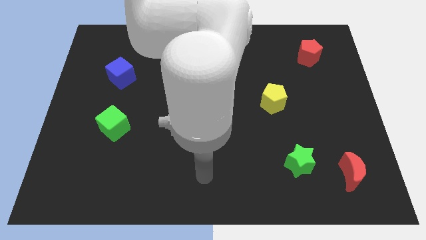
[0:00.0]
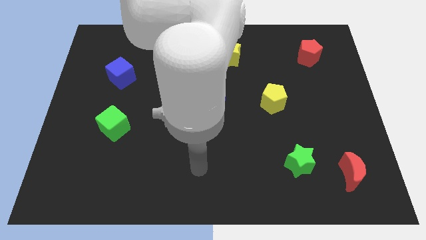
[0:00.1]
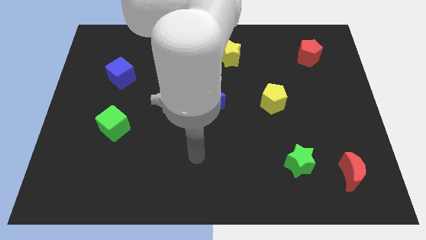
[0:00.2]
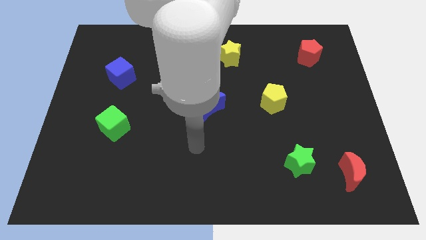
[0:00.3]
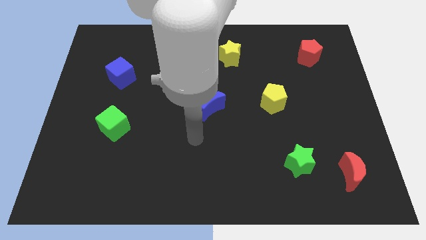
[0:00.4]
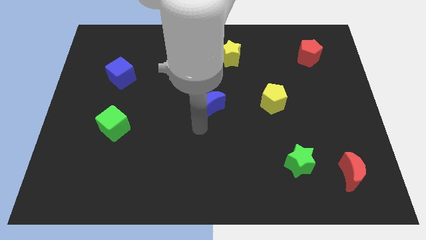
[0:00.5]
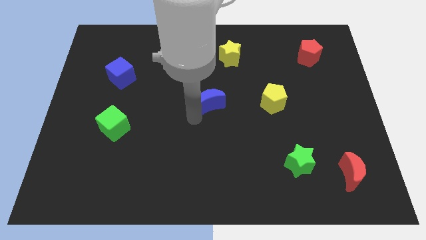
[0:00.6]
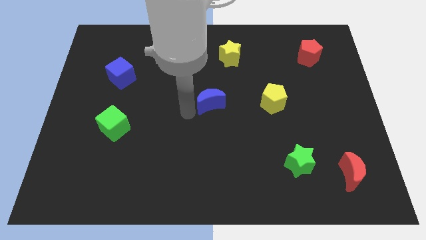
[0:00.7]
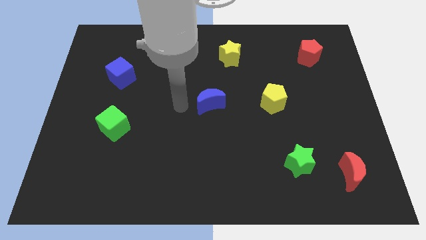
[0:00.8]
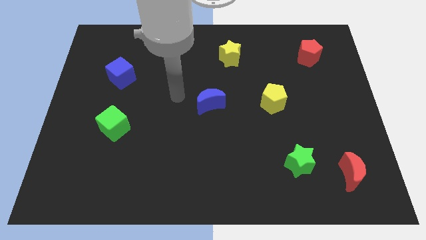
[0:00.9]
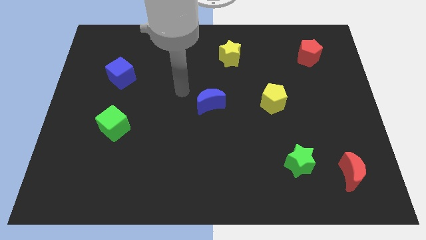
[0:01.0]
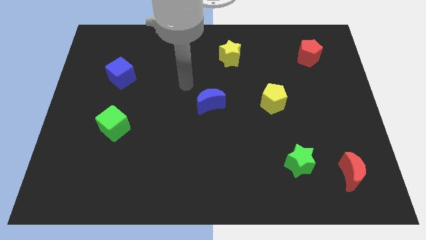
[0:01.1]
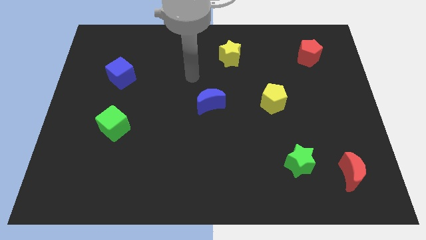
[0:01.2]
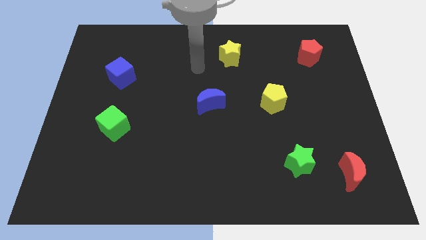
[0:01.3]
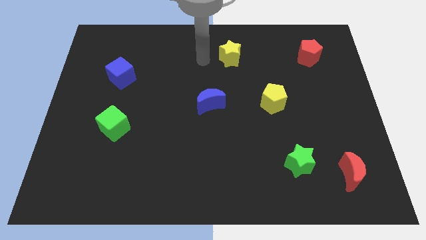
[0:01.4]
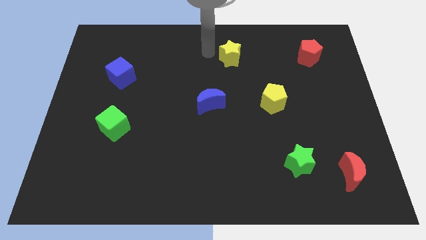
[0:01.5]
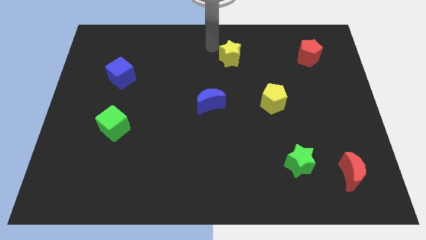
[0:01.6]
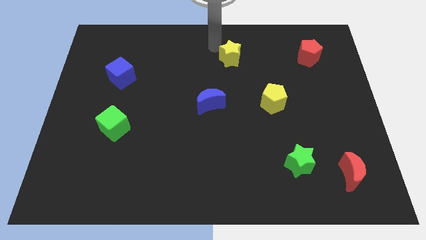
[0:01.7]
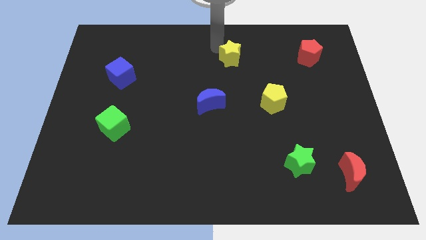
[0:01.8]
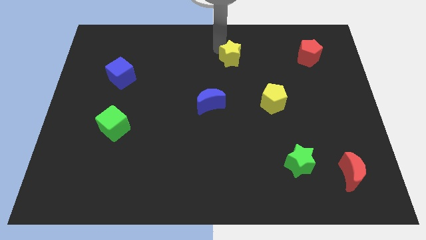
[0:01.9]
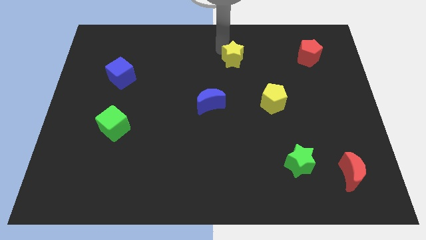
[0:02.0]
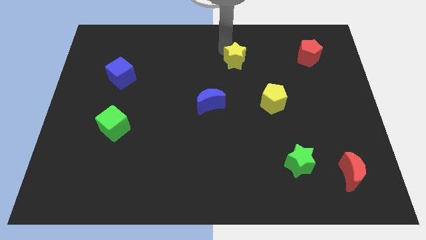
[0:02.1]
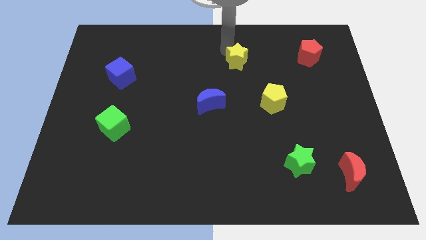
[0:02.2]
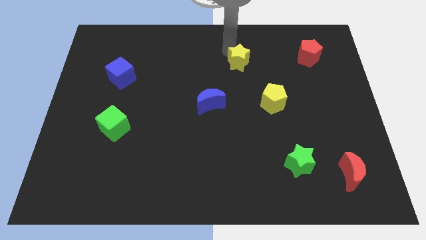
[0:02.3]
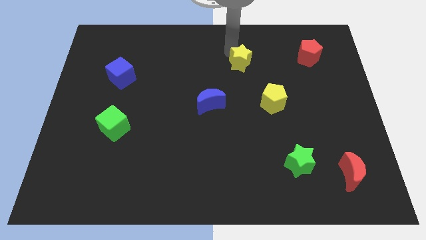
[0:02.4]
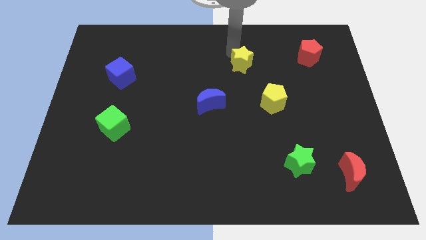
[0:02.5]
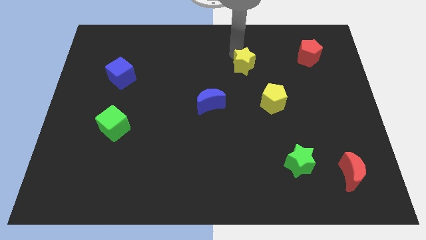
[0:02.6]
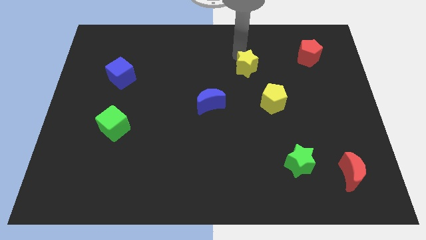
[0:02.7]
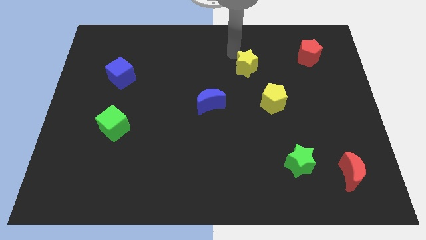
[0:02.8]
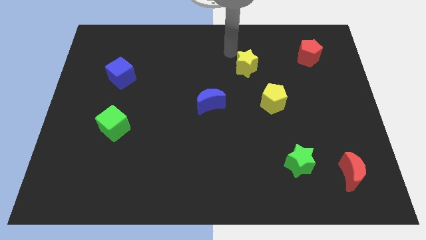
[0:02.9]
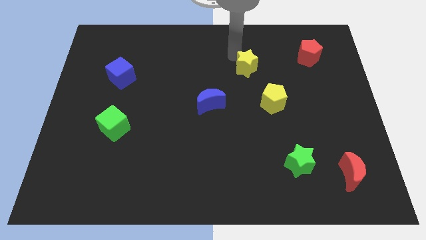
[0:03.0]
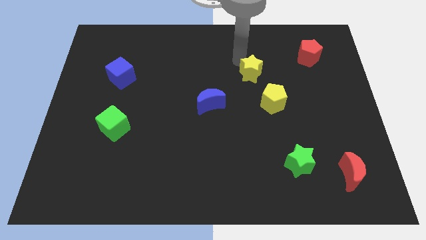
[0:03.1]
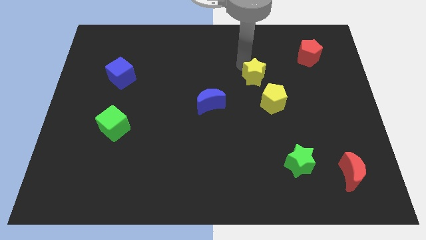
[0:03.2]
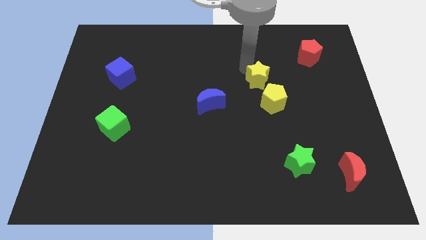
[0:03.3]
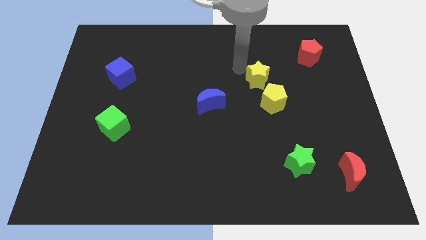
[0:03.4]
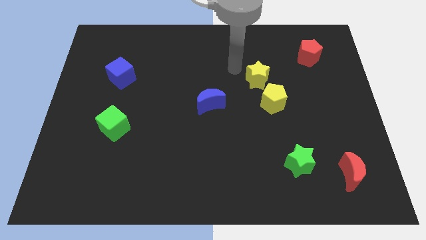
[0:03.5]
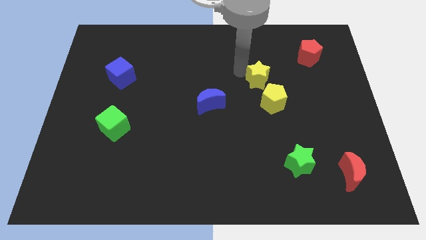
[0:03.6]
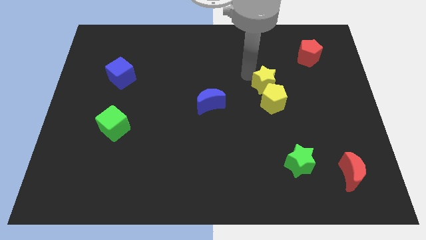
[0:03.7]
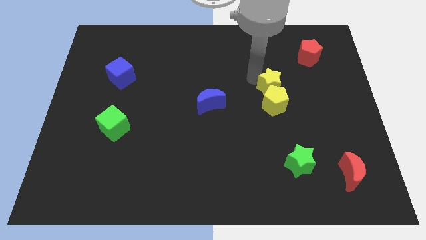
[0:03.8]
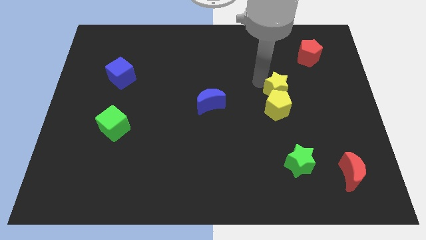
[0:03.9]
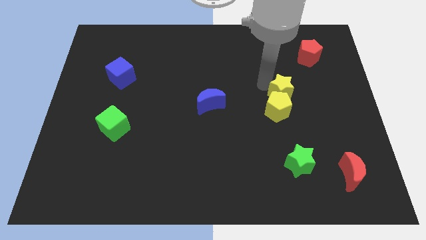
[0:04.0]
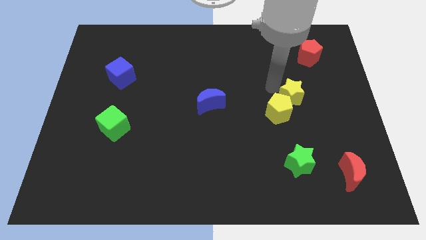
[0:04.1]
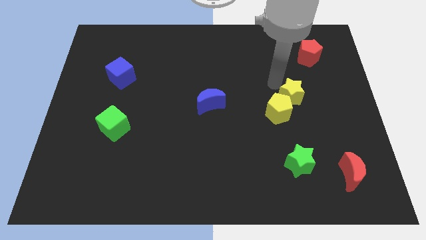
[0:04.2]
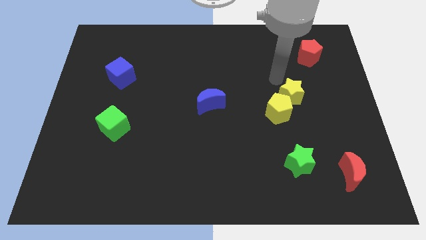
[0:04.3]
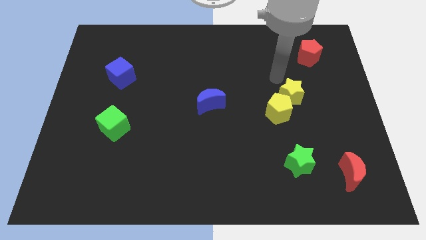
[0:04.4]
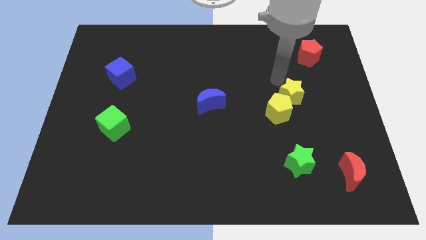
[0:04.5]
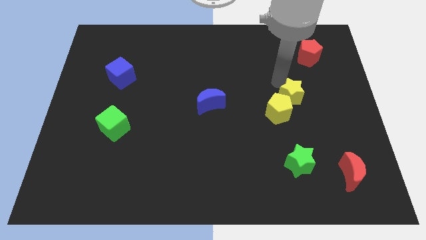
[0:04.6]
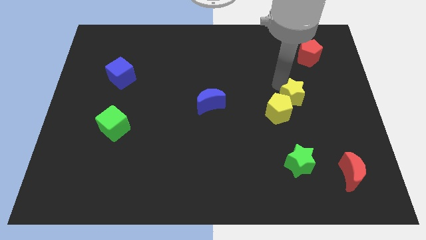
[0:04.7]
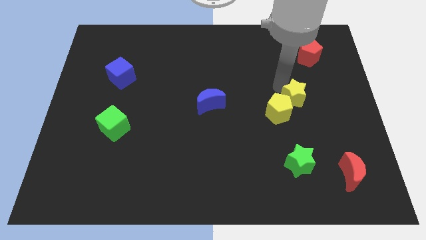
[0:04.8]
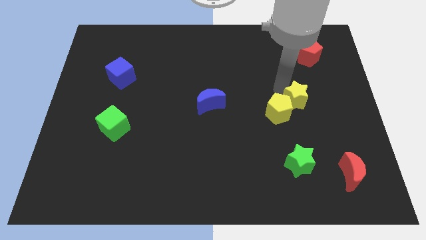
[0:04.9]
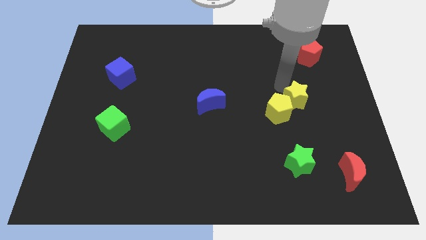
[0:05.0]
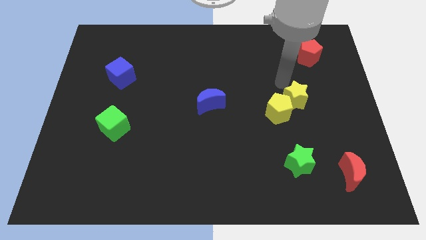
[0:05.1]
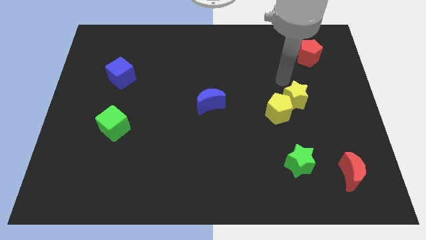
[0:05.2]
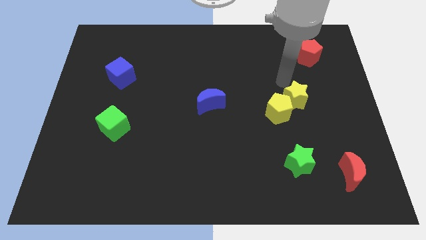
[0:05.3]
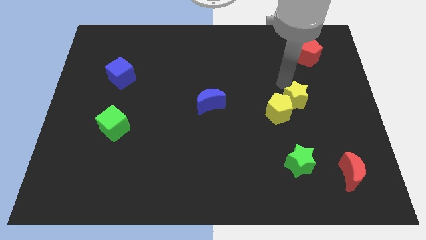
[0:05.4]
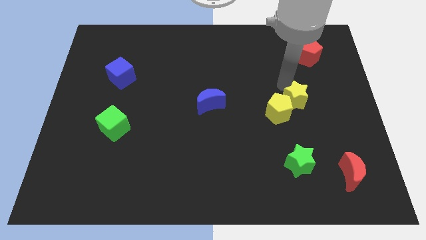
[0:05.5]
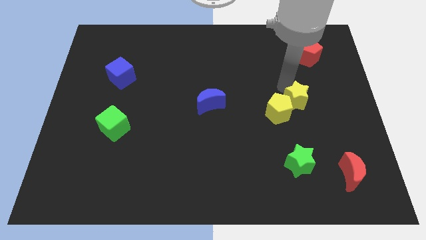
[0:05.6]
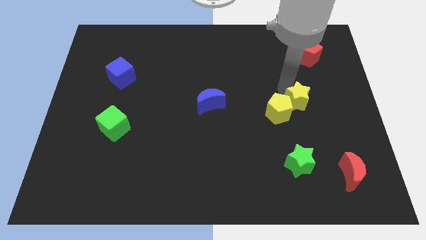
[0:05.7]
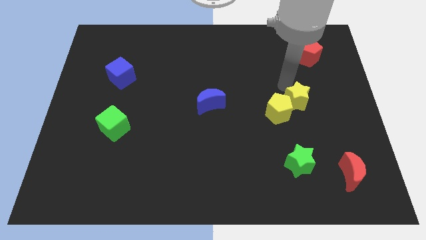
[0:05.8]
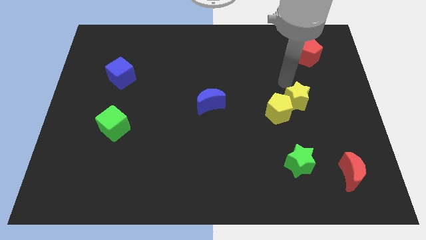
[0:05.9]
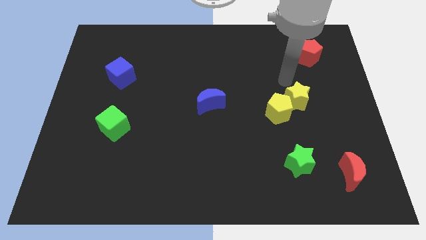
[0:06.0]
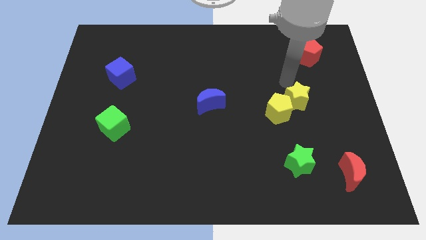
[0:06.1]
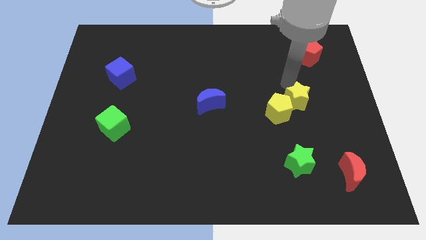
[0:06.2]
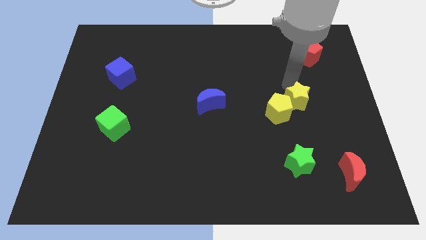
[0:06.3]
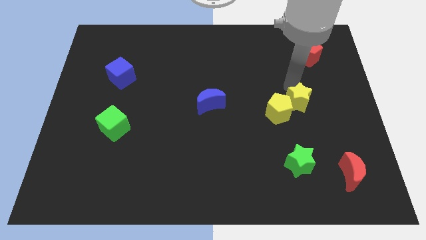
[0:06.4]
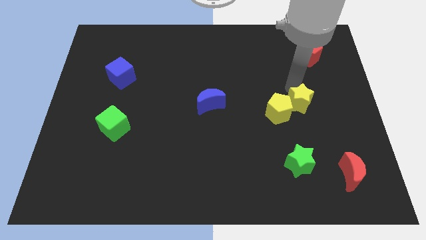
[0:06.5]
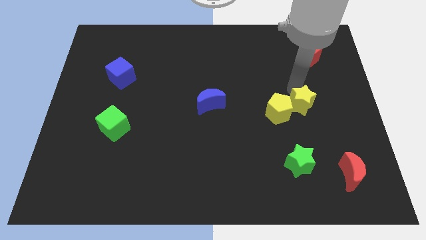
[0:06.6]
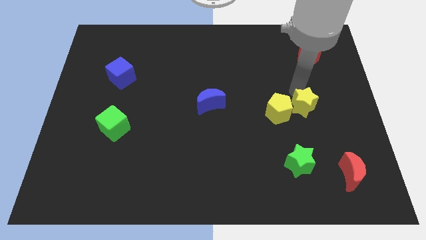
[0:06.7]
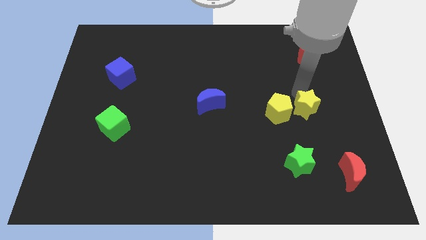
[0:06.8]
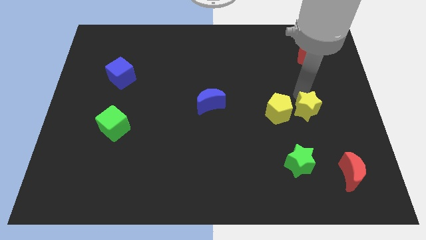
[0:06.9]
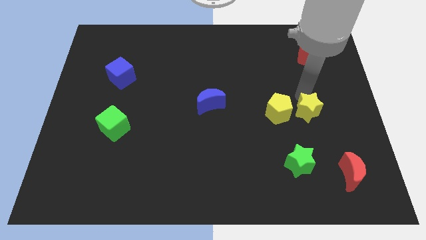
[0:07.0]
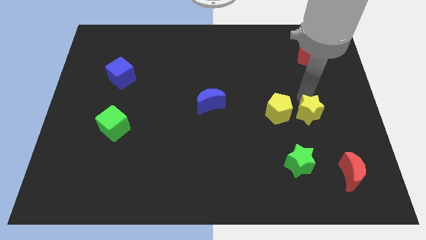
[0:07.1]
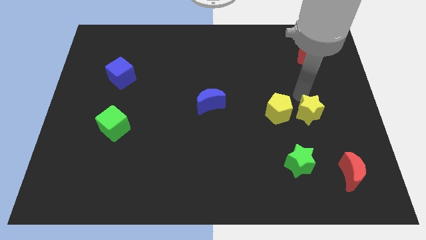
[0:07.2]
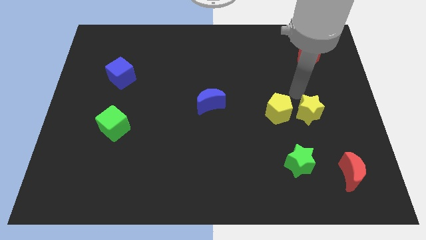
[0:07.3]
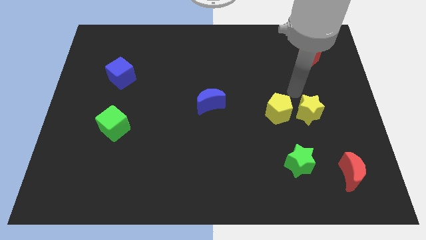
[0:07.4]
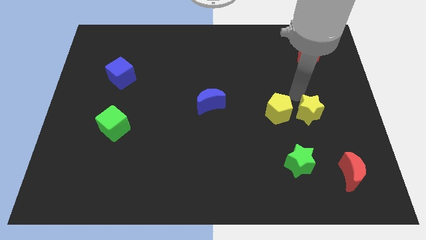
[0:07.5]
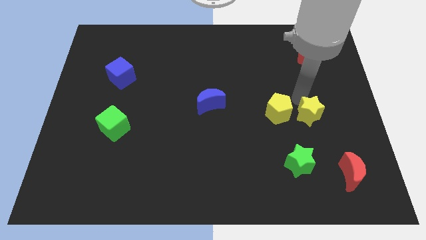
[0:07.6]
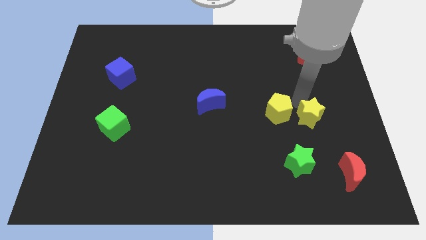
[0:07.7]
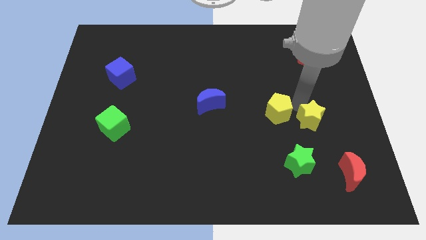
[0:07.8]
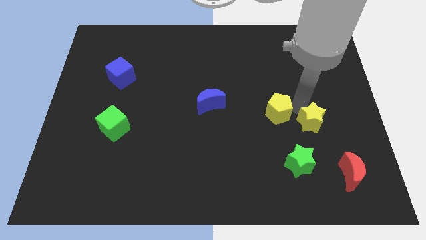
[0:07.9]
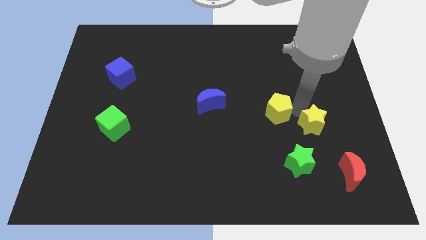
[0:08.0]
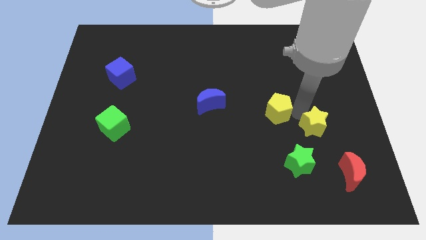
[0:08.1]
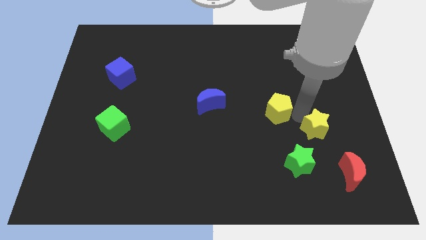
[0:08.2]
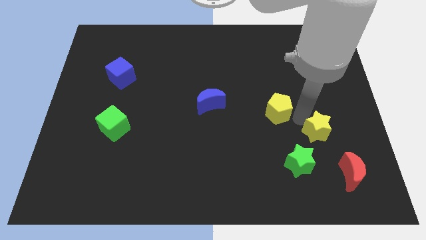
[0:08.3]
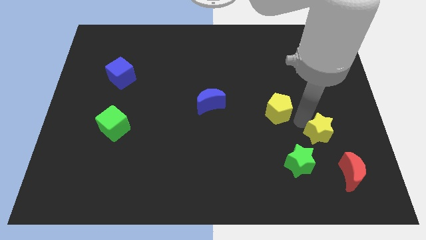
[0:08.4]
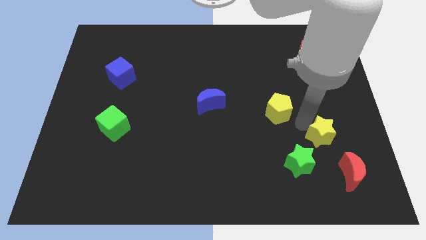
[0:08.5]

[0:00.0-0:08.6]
push the yellow star to the top of the red moon
